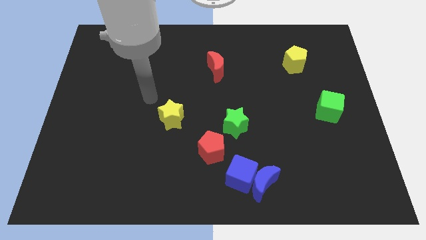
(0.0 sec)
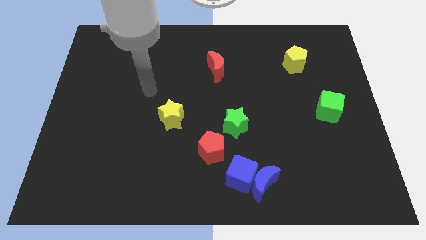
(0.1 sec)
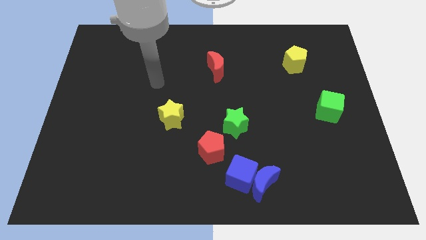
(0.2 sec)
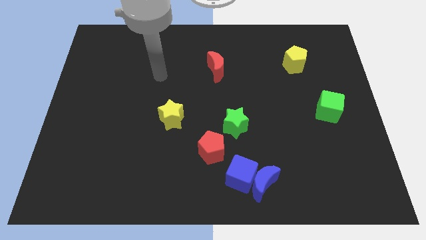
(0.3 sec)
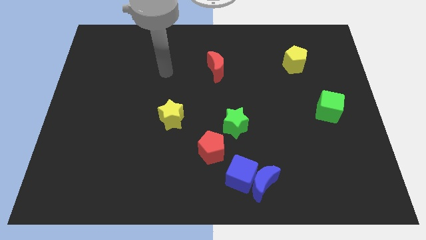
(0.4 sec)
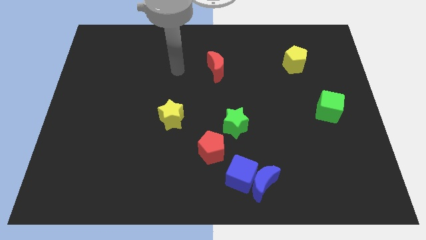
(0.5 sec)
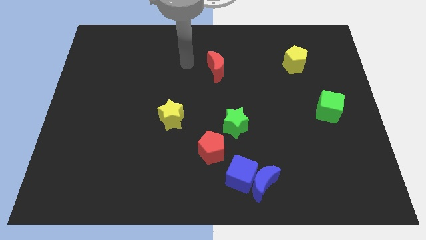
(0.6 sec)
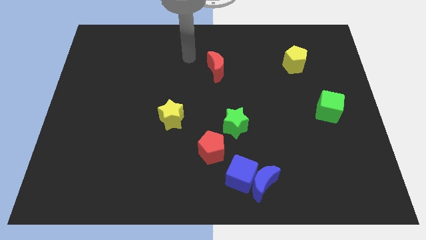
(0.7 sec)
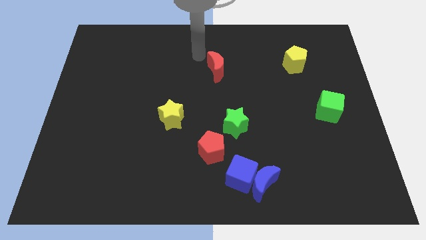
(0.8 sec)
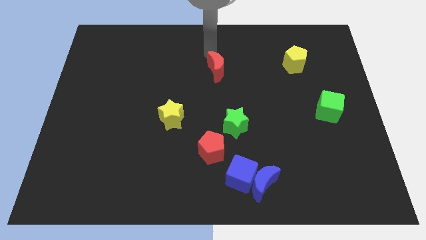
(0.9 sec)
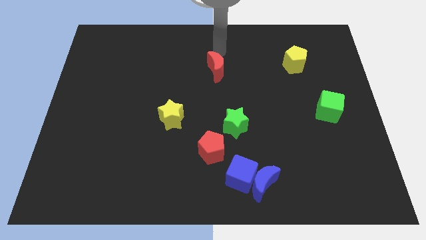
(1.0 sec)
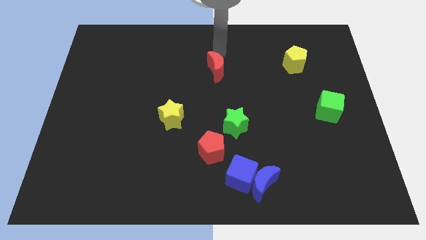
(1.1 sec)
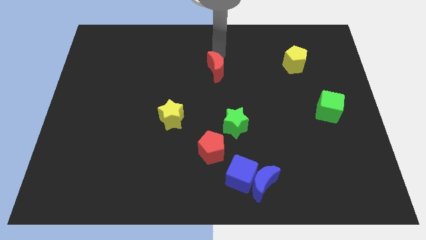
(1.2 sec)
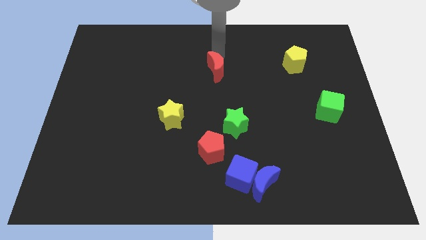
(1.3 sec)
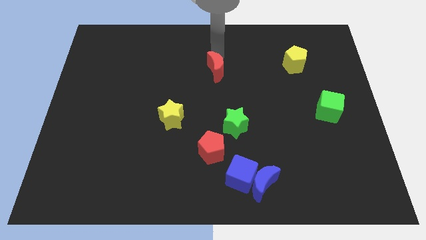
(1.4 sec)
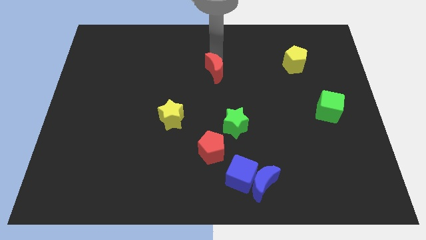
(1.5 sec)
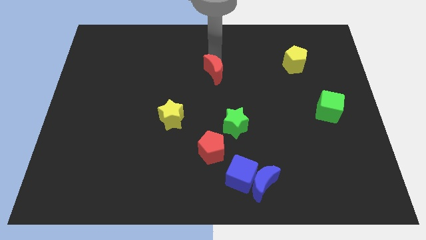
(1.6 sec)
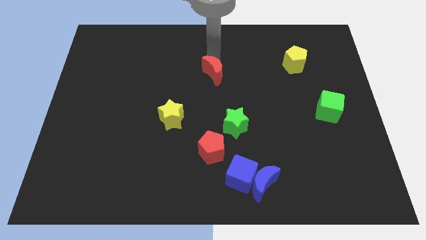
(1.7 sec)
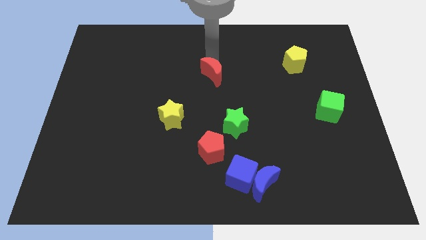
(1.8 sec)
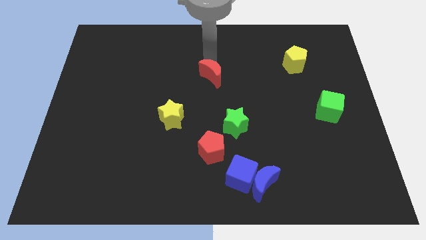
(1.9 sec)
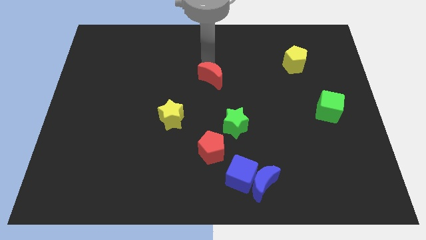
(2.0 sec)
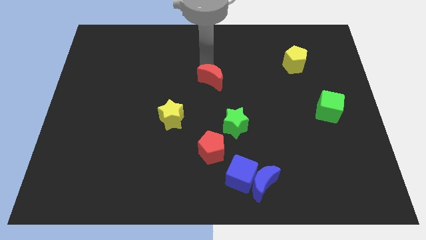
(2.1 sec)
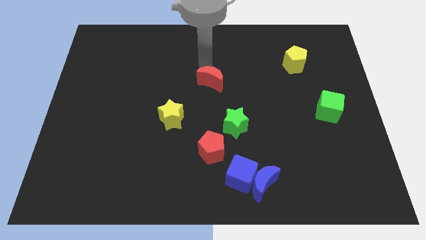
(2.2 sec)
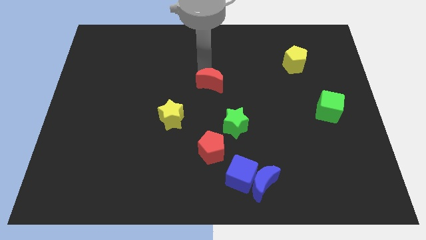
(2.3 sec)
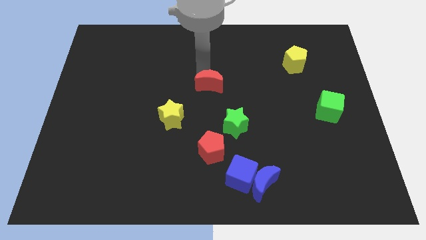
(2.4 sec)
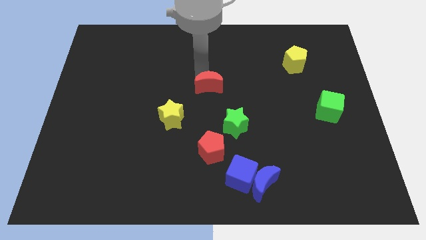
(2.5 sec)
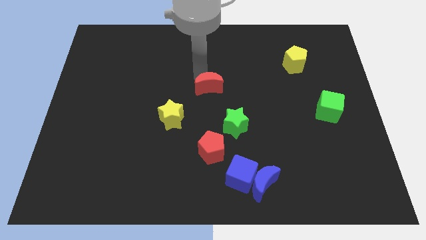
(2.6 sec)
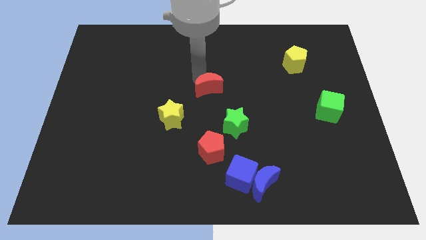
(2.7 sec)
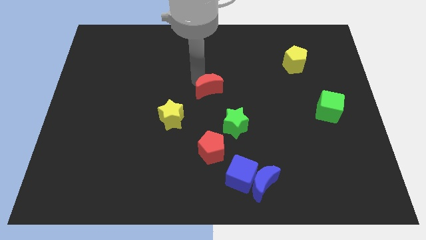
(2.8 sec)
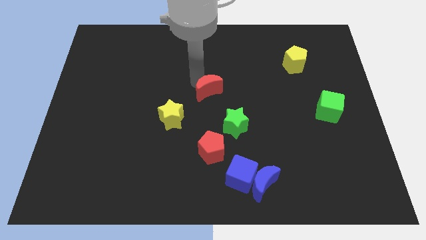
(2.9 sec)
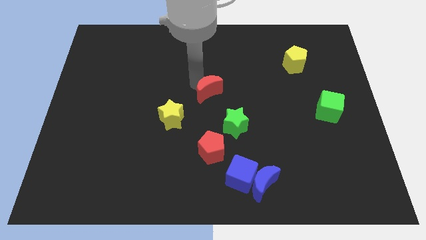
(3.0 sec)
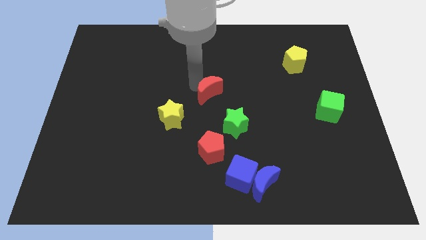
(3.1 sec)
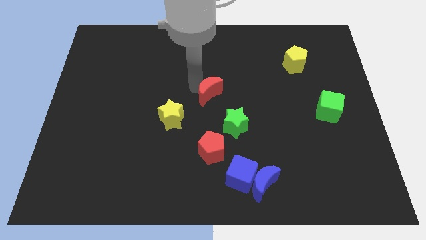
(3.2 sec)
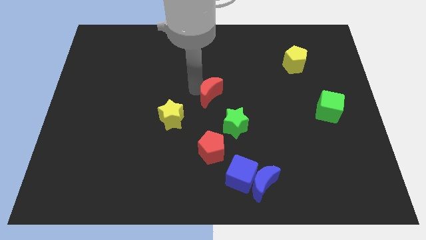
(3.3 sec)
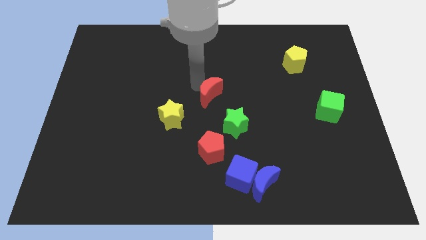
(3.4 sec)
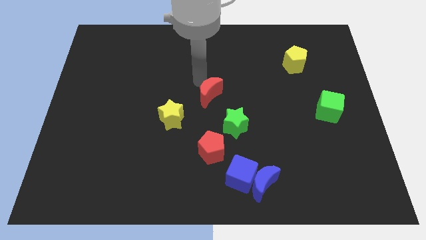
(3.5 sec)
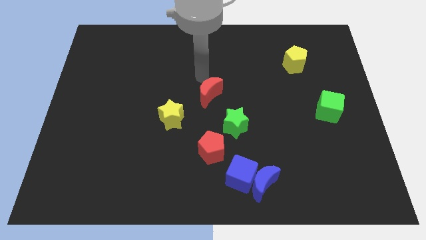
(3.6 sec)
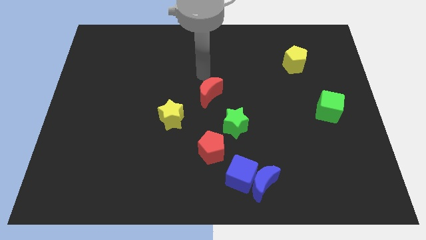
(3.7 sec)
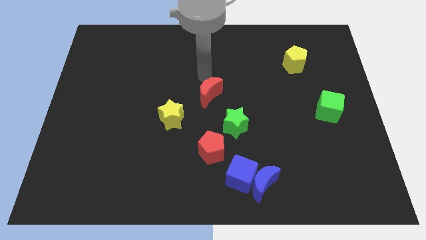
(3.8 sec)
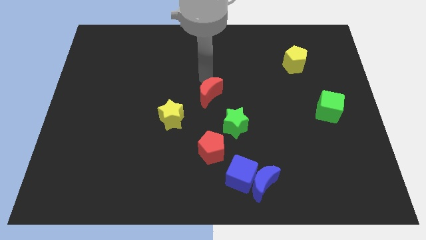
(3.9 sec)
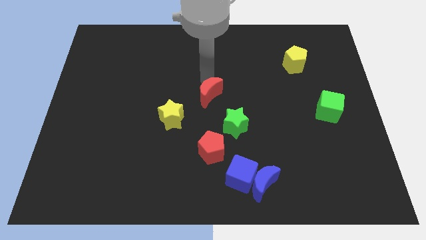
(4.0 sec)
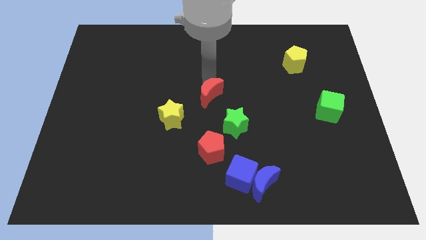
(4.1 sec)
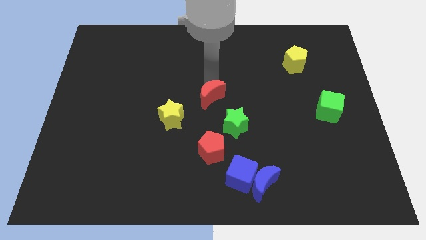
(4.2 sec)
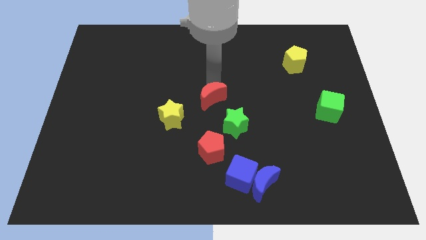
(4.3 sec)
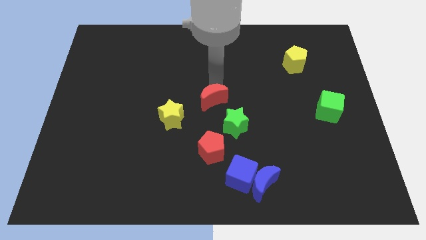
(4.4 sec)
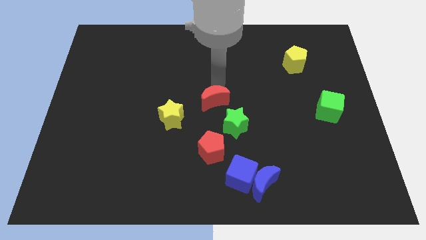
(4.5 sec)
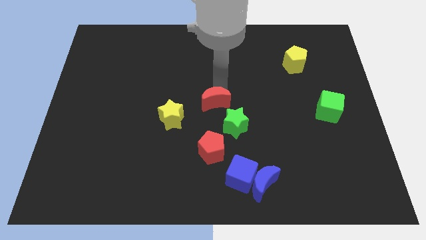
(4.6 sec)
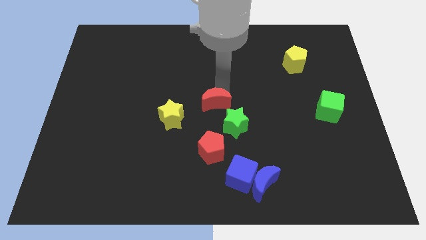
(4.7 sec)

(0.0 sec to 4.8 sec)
move the red moon to the right of the yellow star

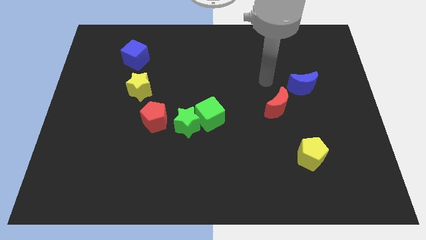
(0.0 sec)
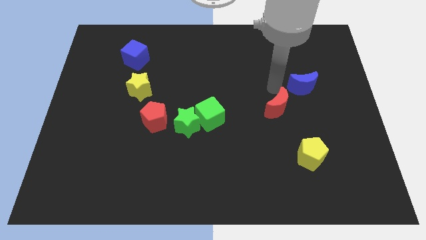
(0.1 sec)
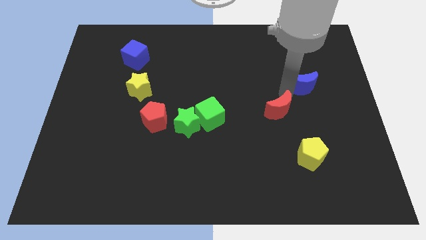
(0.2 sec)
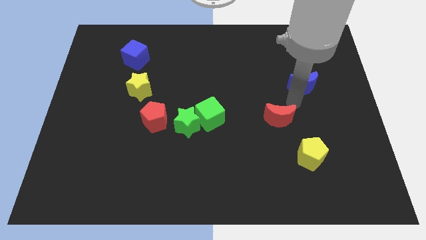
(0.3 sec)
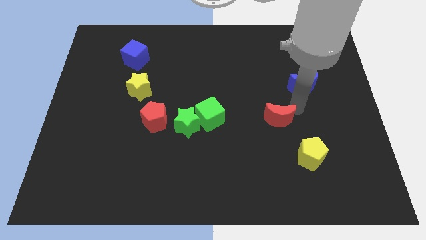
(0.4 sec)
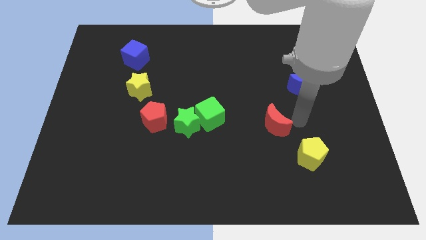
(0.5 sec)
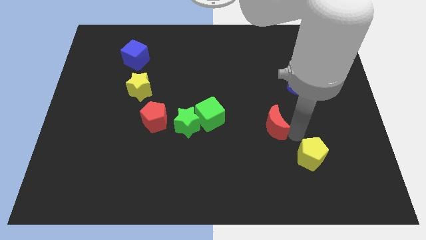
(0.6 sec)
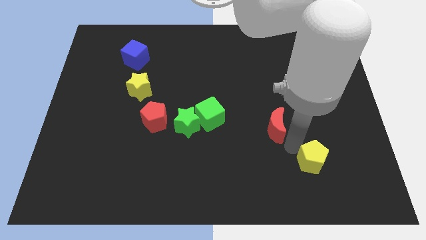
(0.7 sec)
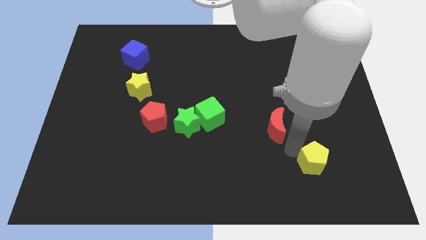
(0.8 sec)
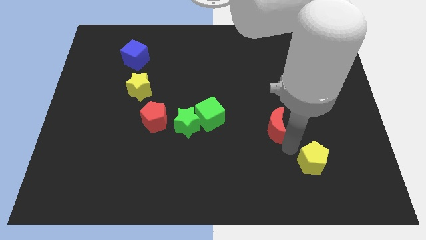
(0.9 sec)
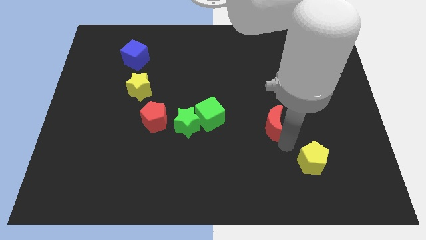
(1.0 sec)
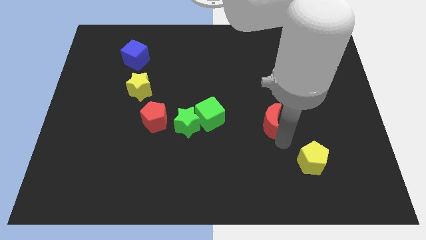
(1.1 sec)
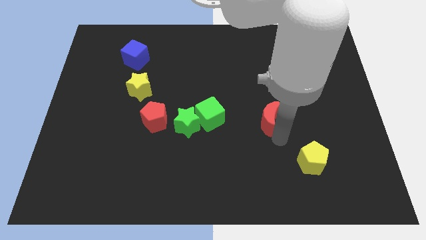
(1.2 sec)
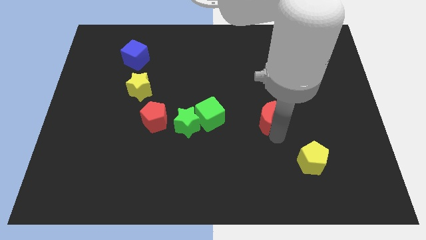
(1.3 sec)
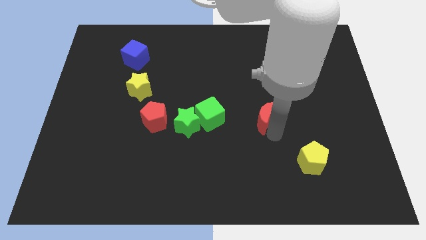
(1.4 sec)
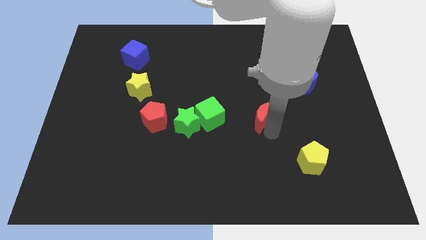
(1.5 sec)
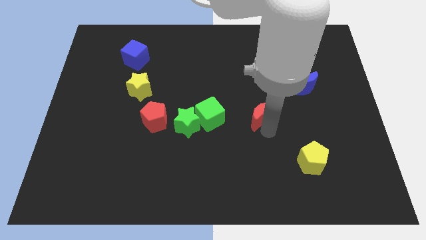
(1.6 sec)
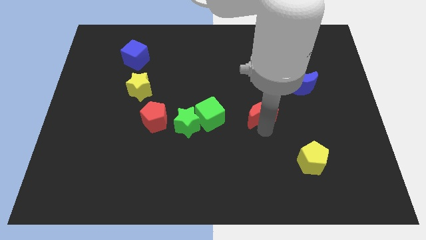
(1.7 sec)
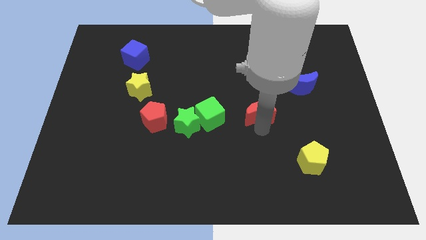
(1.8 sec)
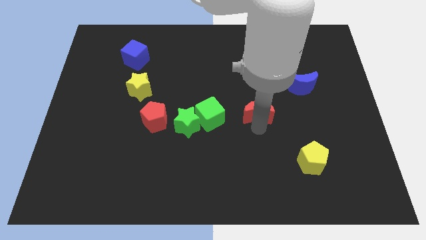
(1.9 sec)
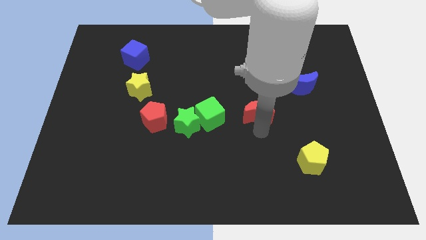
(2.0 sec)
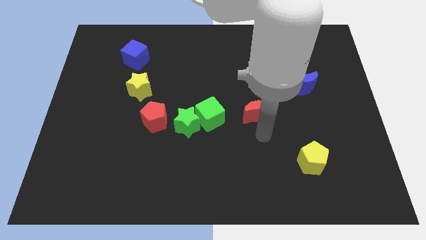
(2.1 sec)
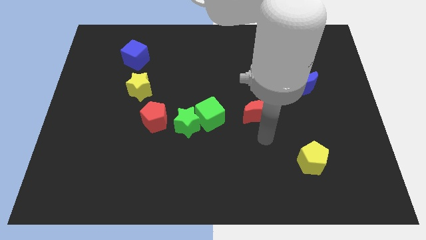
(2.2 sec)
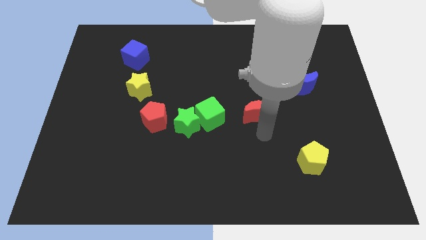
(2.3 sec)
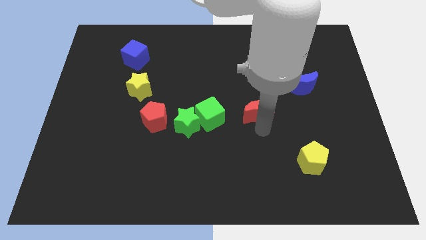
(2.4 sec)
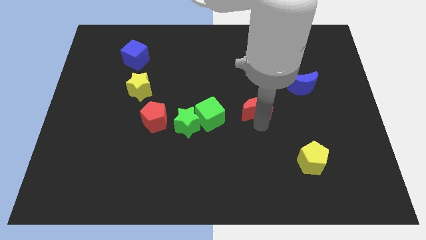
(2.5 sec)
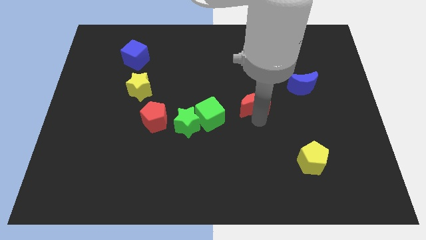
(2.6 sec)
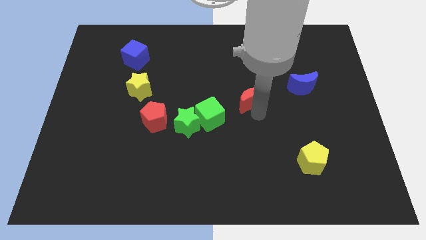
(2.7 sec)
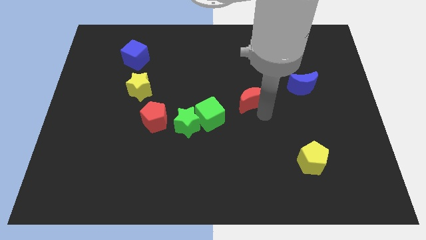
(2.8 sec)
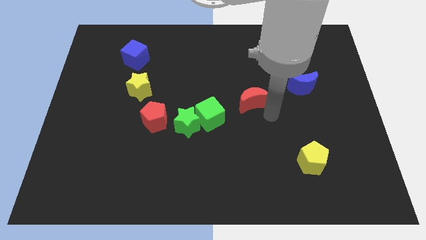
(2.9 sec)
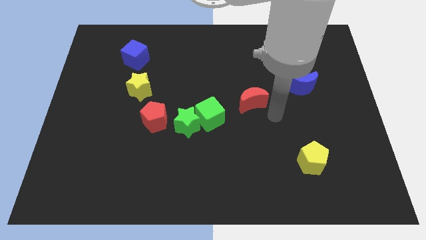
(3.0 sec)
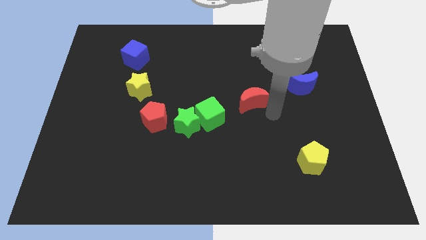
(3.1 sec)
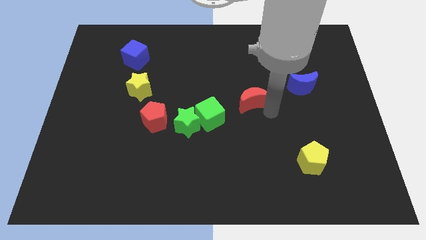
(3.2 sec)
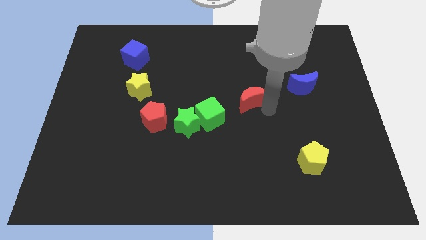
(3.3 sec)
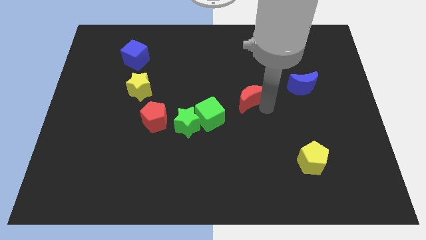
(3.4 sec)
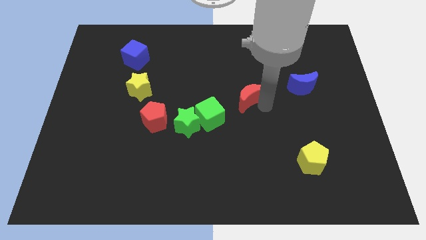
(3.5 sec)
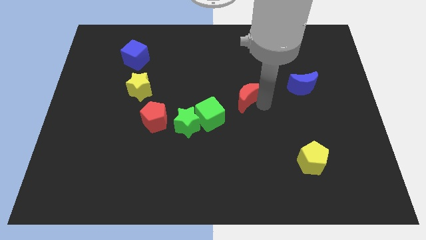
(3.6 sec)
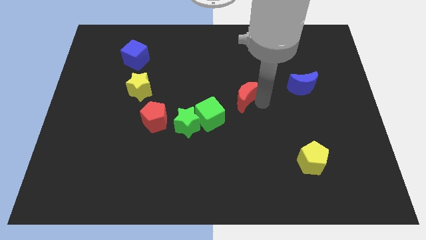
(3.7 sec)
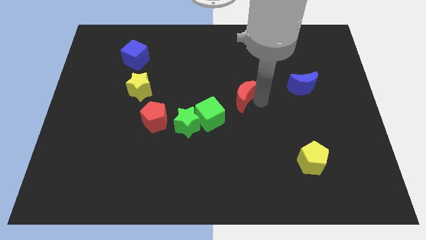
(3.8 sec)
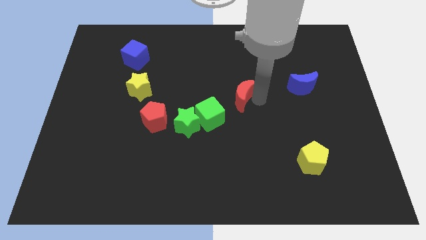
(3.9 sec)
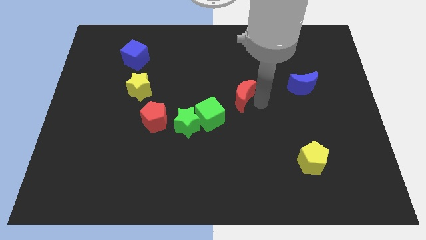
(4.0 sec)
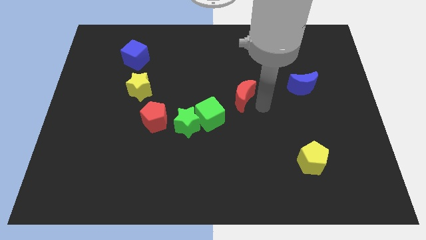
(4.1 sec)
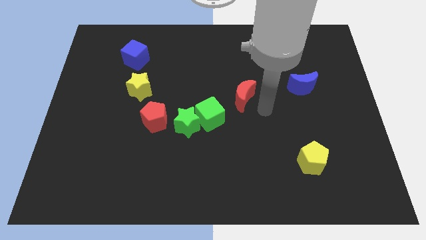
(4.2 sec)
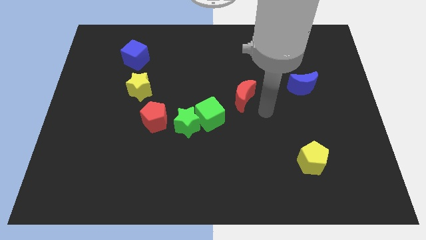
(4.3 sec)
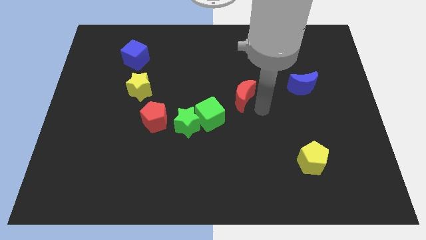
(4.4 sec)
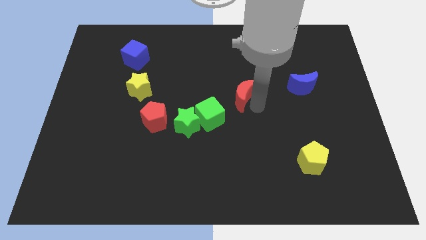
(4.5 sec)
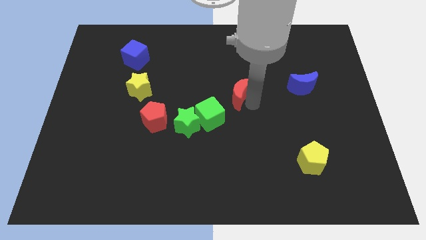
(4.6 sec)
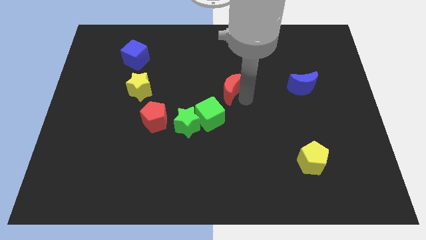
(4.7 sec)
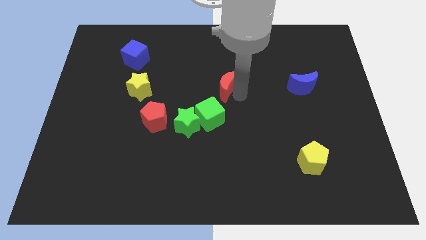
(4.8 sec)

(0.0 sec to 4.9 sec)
push the red moon above the green cube
